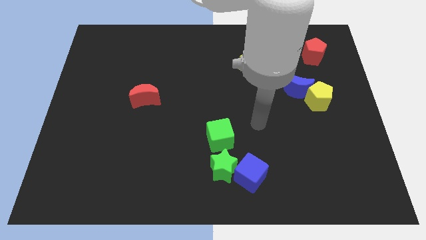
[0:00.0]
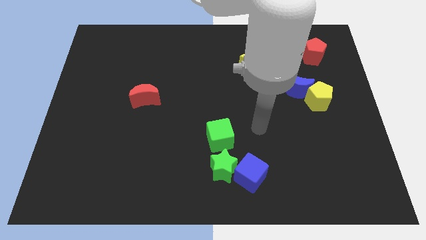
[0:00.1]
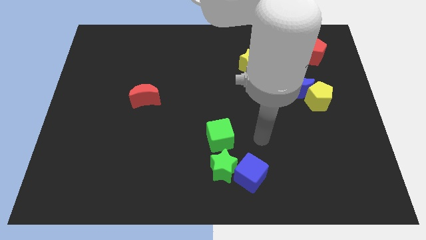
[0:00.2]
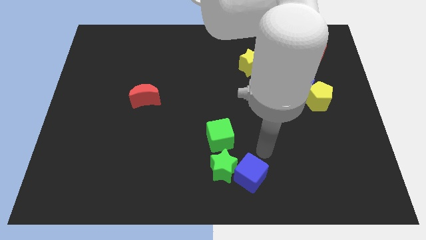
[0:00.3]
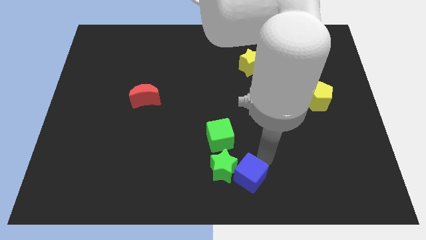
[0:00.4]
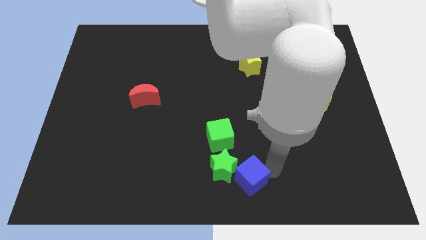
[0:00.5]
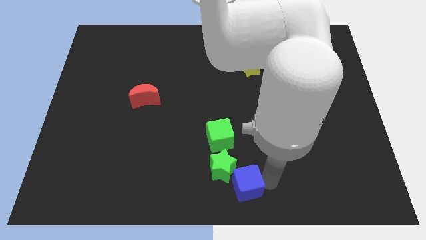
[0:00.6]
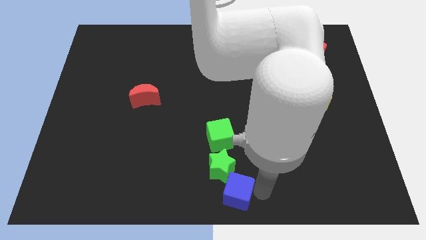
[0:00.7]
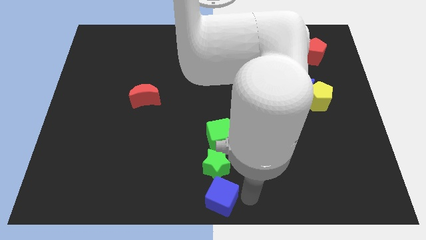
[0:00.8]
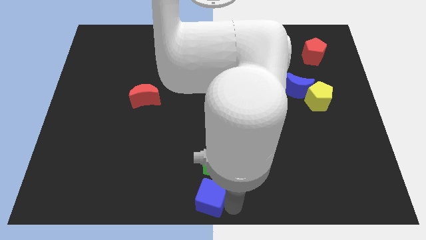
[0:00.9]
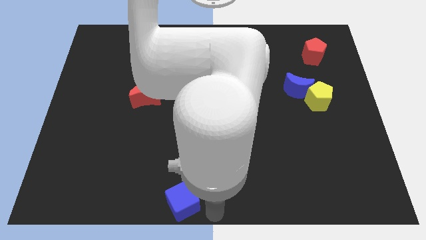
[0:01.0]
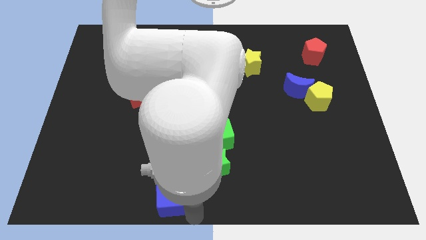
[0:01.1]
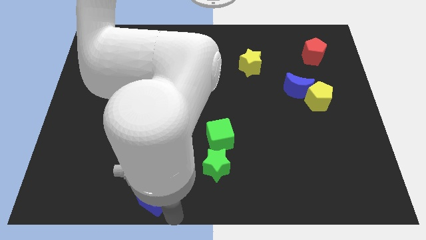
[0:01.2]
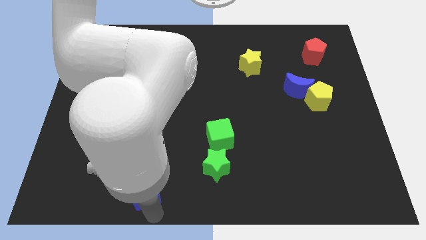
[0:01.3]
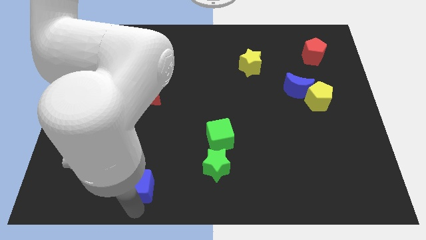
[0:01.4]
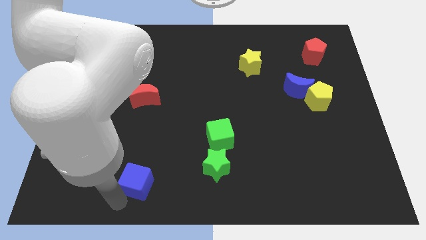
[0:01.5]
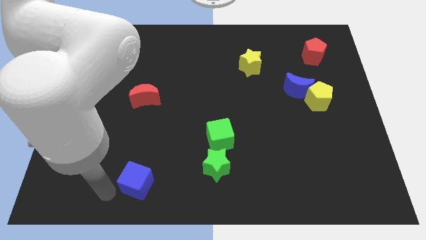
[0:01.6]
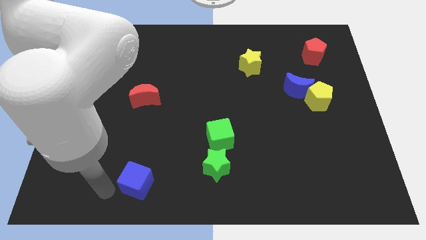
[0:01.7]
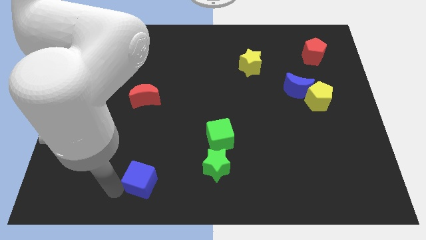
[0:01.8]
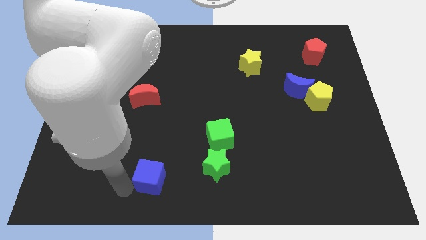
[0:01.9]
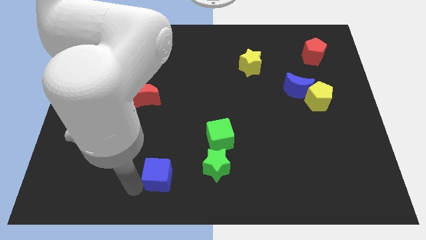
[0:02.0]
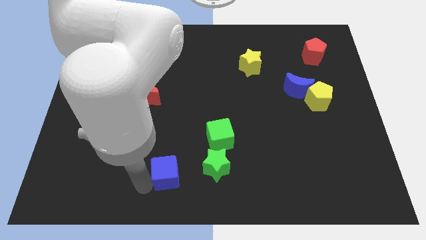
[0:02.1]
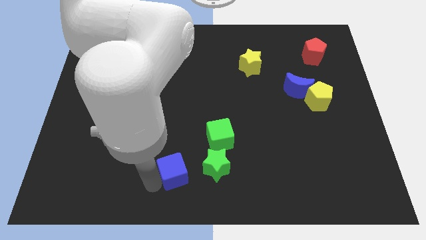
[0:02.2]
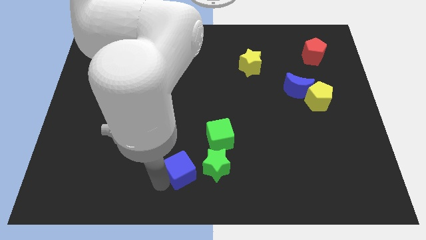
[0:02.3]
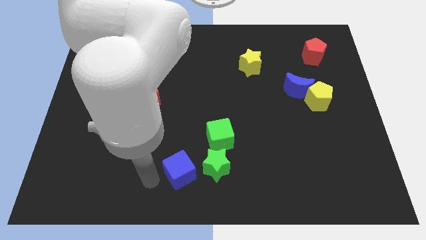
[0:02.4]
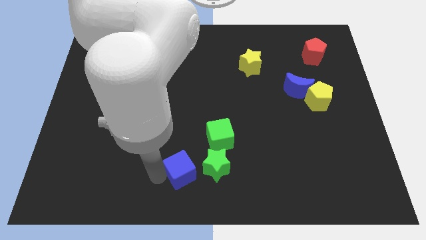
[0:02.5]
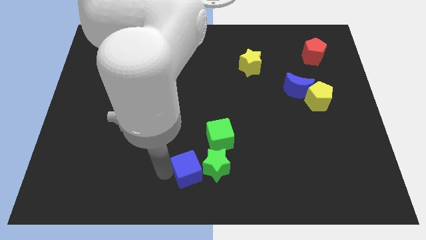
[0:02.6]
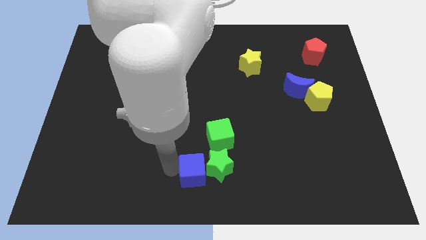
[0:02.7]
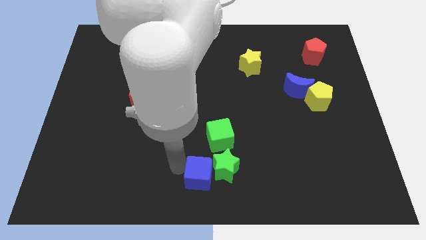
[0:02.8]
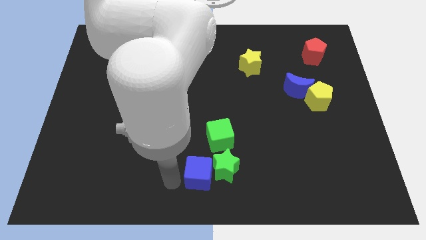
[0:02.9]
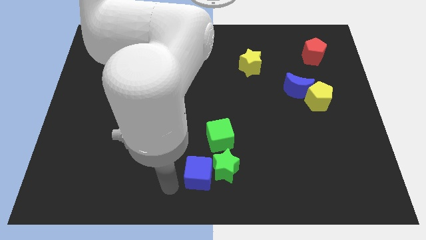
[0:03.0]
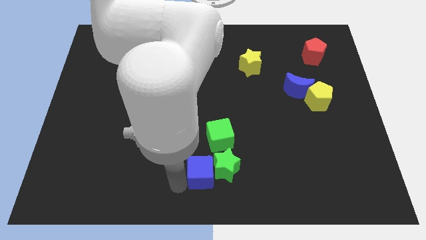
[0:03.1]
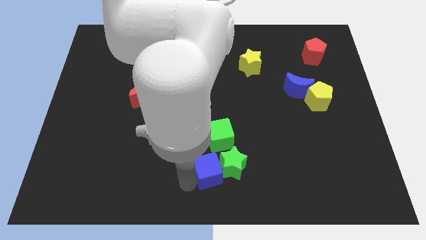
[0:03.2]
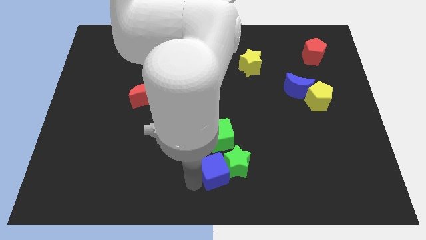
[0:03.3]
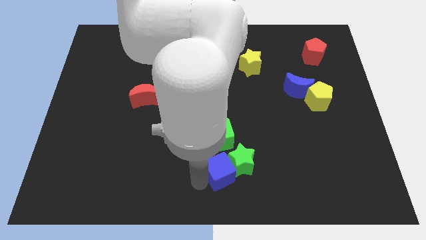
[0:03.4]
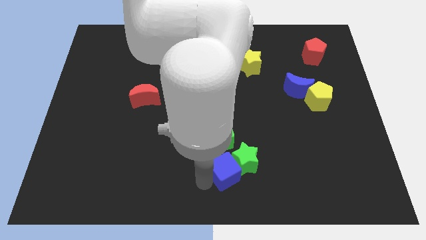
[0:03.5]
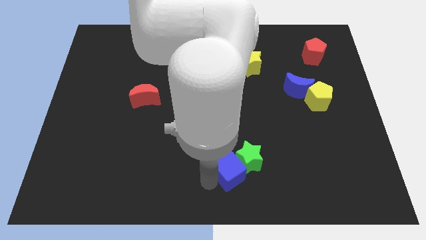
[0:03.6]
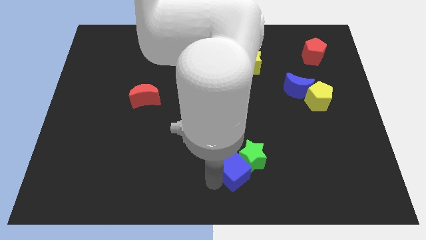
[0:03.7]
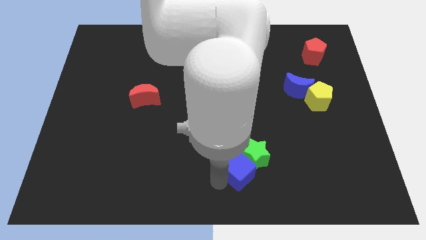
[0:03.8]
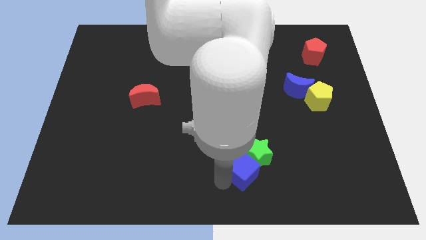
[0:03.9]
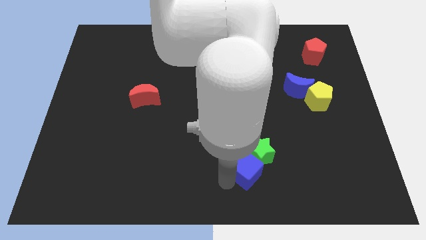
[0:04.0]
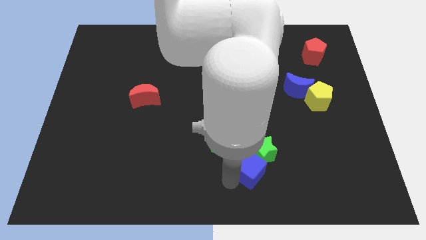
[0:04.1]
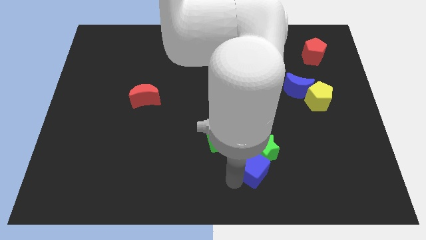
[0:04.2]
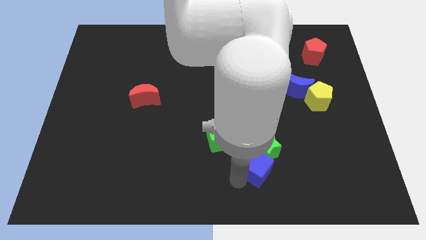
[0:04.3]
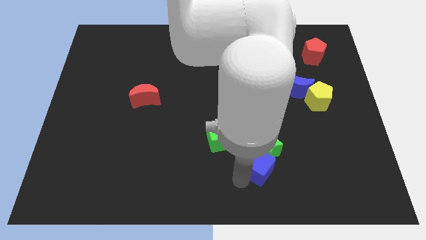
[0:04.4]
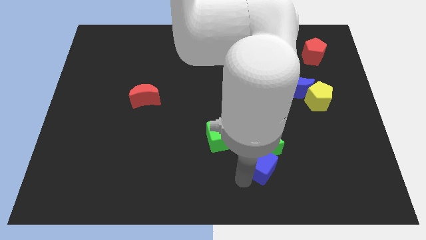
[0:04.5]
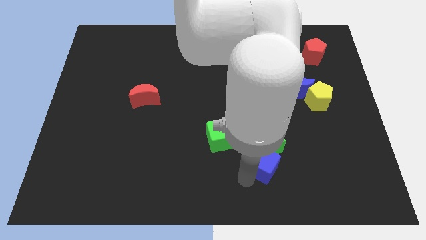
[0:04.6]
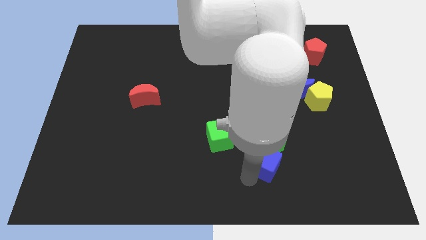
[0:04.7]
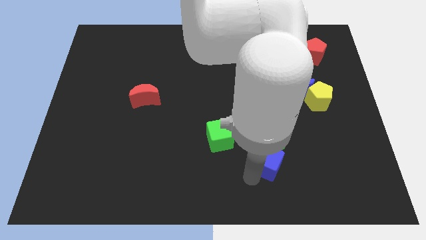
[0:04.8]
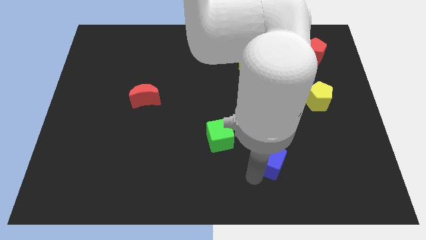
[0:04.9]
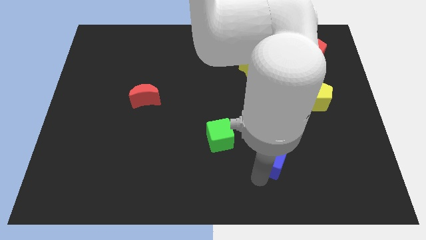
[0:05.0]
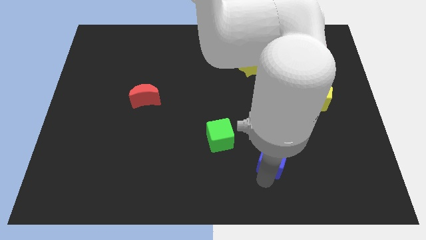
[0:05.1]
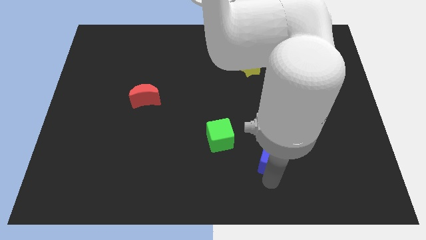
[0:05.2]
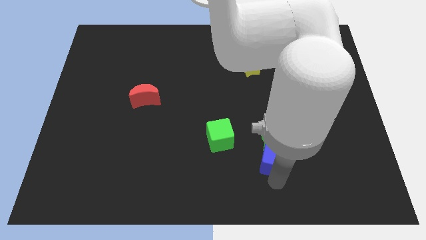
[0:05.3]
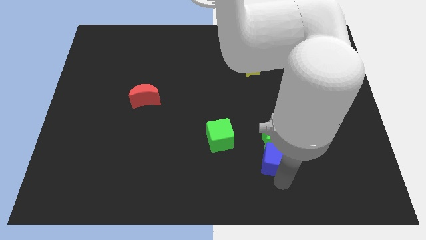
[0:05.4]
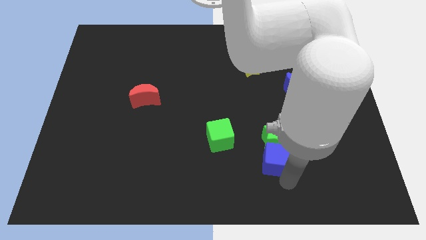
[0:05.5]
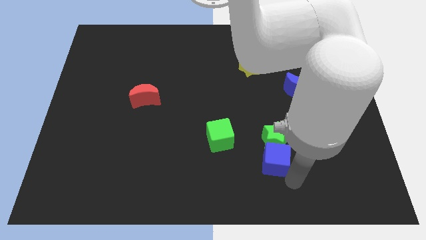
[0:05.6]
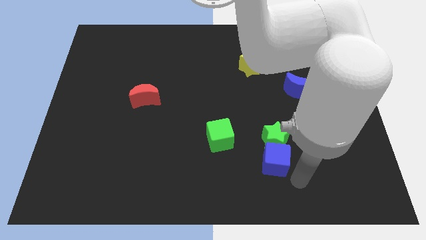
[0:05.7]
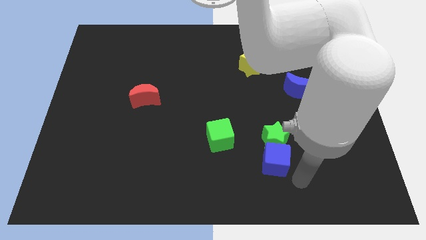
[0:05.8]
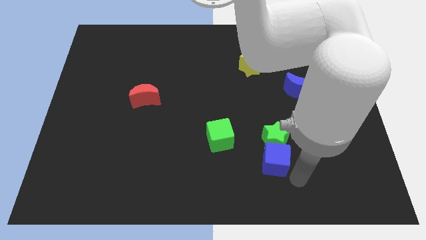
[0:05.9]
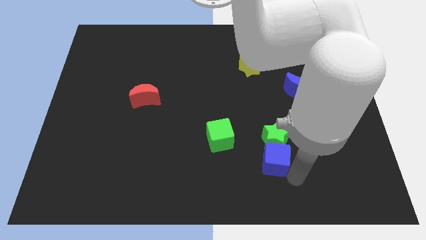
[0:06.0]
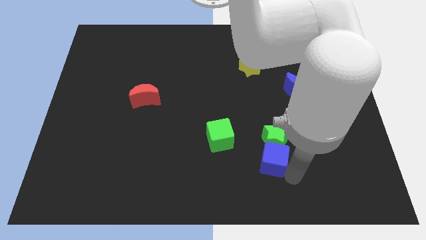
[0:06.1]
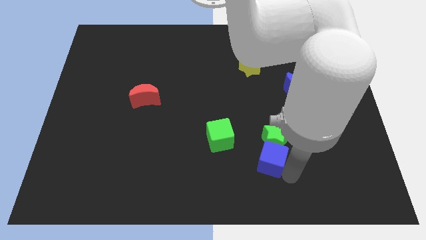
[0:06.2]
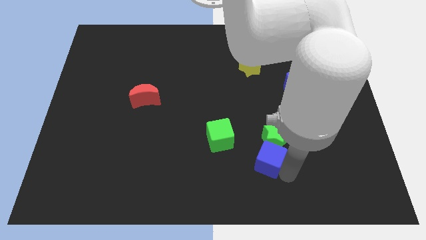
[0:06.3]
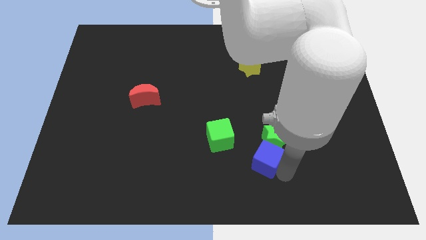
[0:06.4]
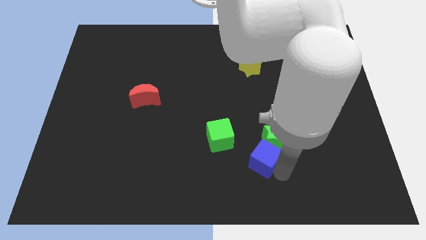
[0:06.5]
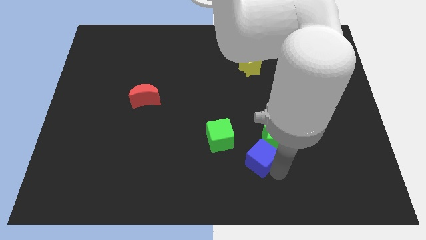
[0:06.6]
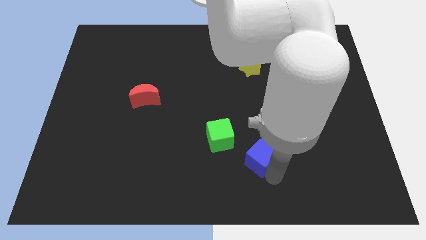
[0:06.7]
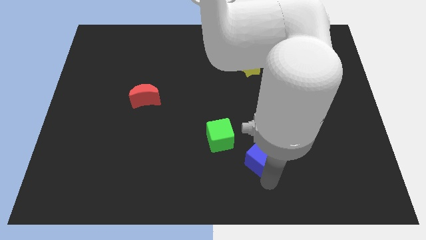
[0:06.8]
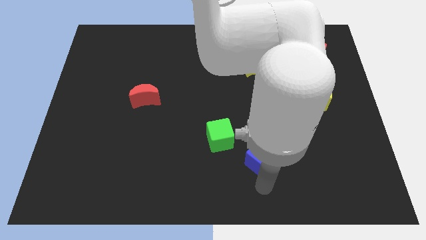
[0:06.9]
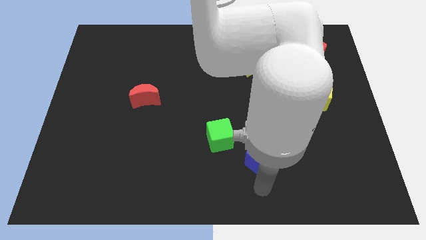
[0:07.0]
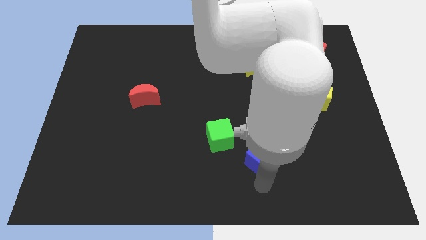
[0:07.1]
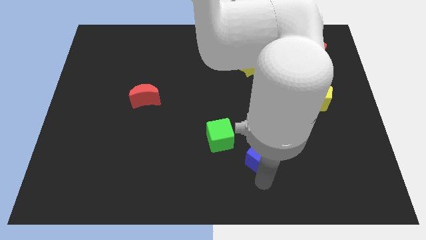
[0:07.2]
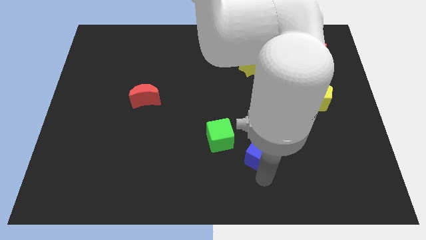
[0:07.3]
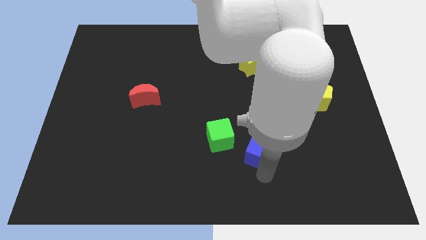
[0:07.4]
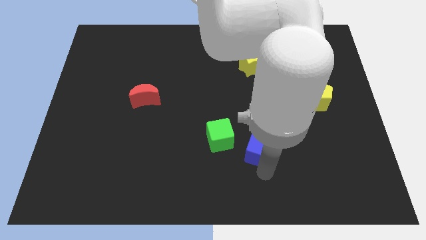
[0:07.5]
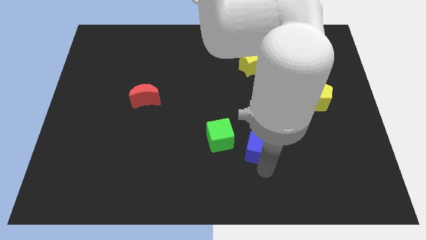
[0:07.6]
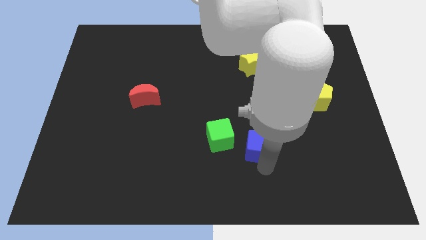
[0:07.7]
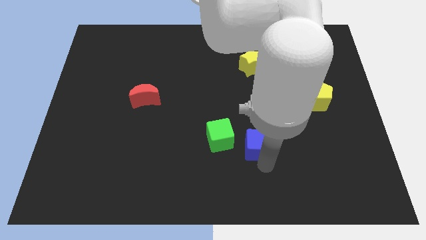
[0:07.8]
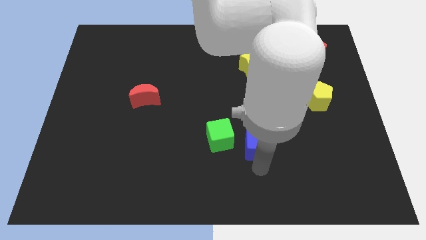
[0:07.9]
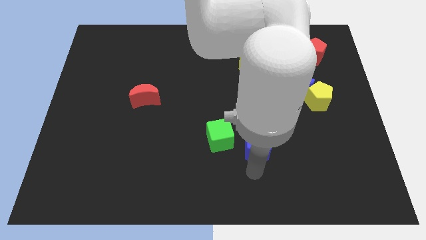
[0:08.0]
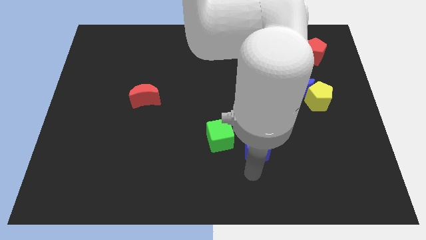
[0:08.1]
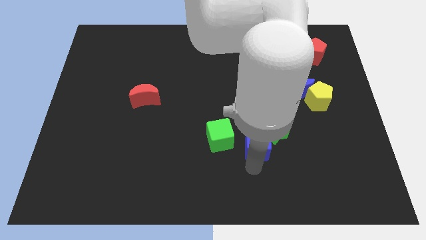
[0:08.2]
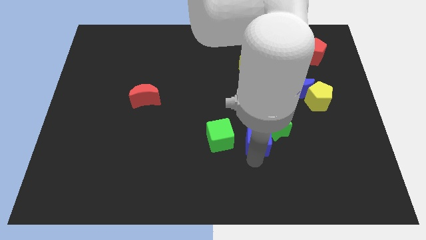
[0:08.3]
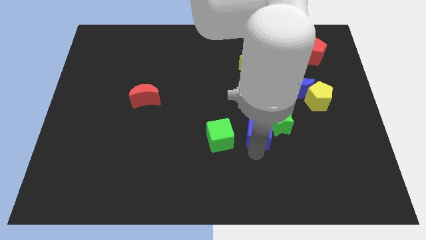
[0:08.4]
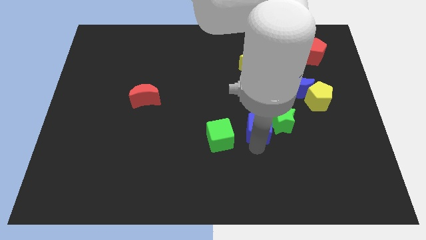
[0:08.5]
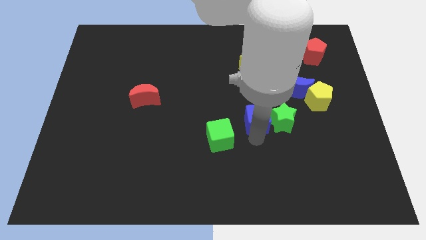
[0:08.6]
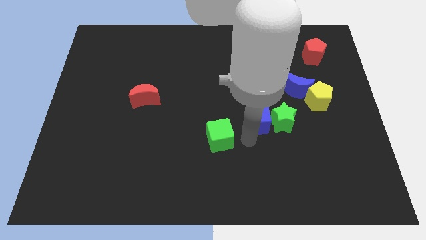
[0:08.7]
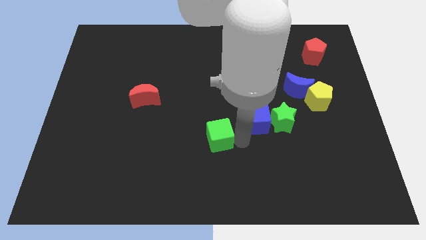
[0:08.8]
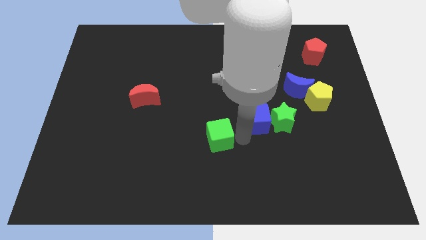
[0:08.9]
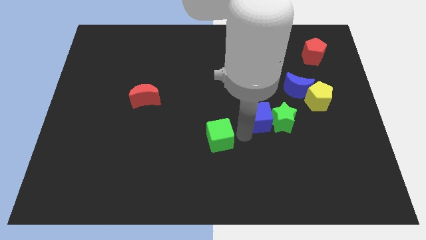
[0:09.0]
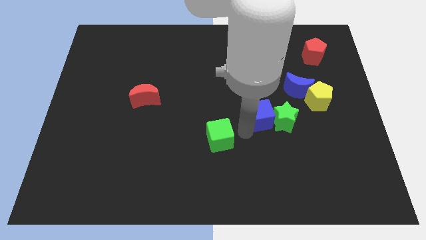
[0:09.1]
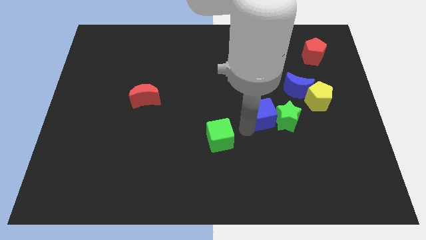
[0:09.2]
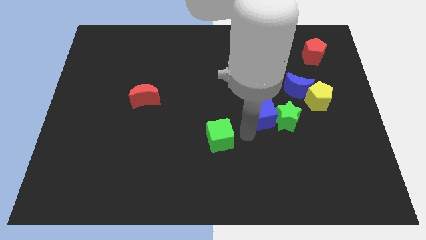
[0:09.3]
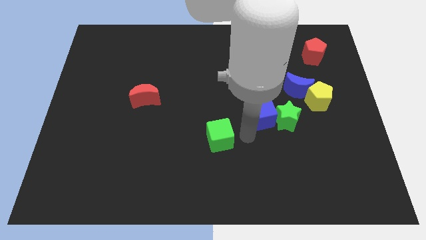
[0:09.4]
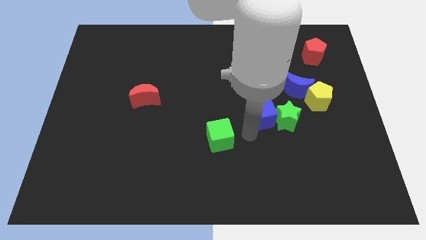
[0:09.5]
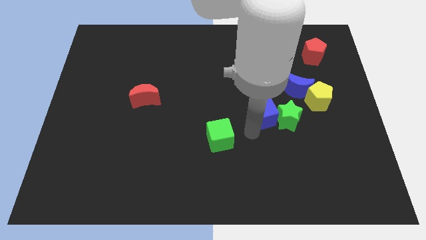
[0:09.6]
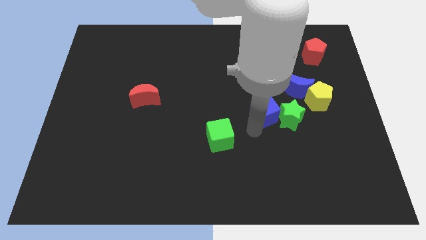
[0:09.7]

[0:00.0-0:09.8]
slide the blue cube to the left side of the yellow pentagon
